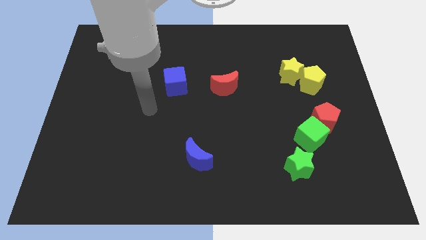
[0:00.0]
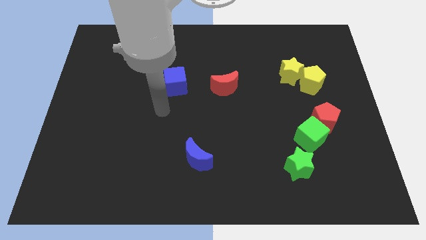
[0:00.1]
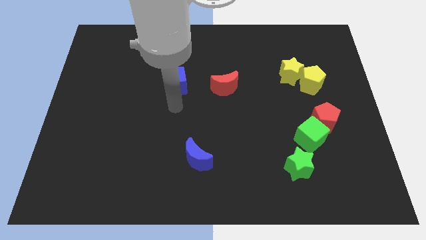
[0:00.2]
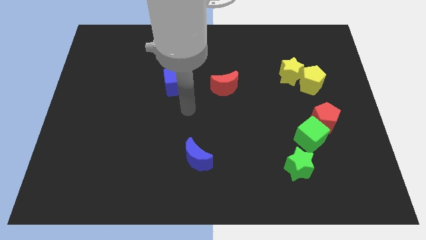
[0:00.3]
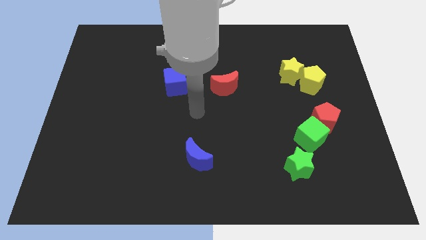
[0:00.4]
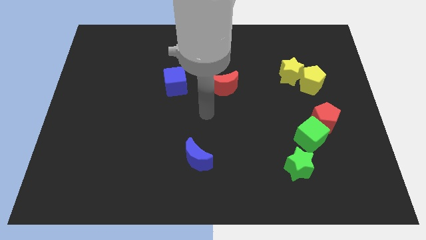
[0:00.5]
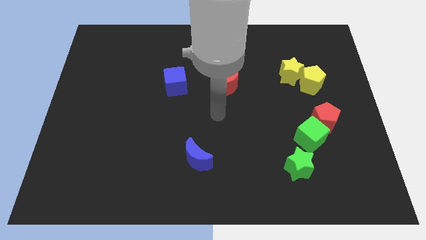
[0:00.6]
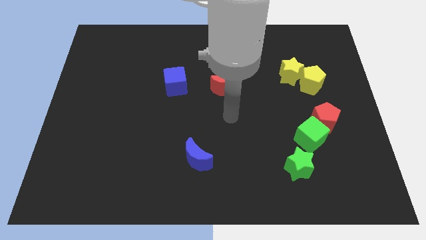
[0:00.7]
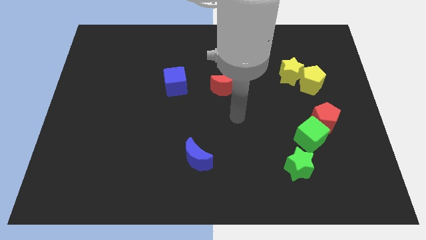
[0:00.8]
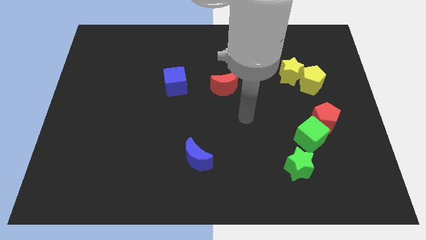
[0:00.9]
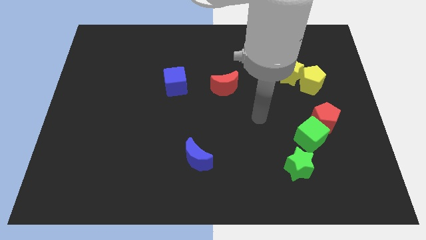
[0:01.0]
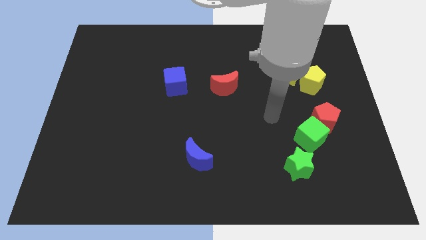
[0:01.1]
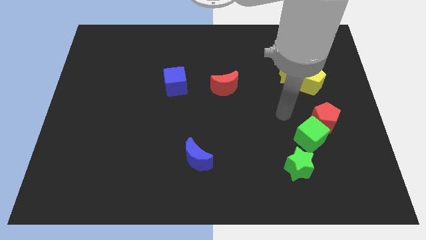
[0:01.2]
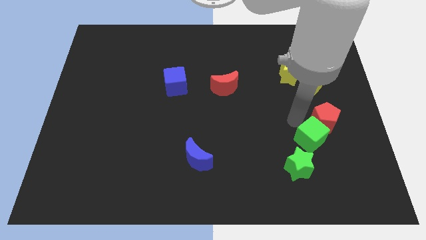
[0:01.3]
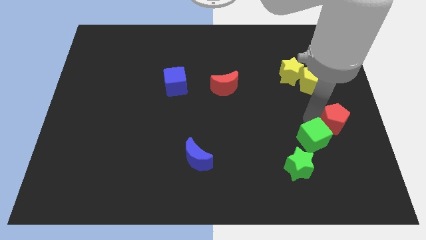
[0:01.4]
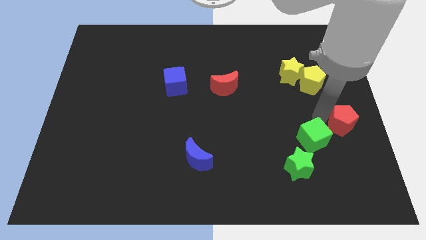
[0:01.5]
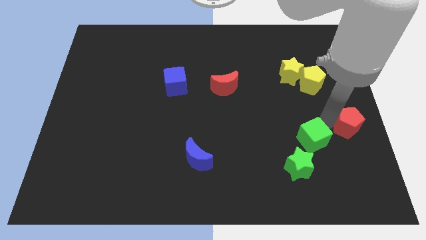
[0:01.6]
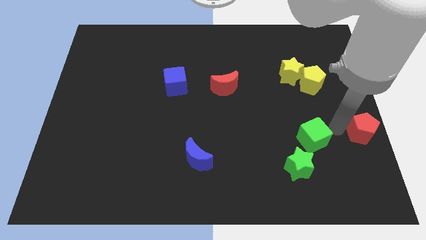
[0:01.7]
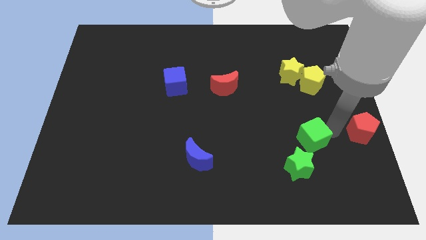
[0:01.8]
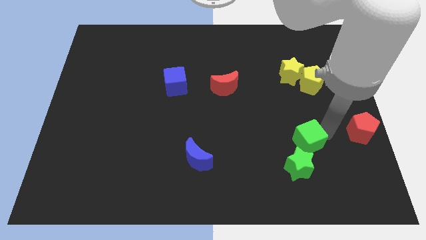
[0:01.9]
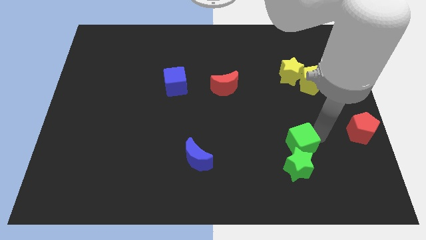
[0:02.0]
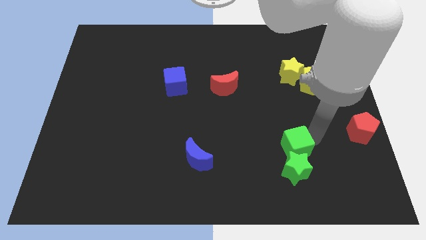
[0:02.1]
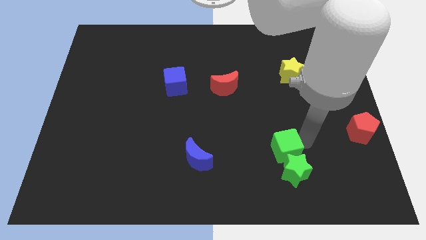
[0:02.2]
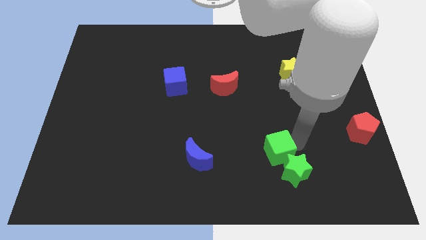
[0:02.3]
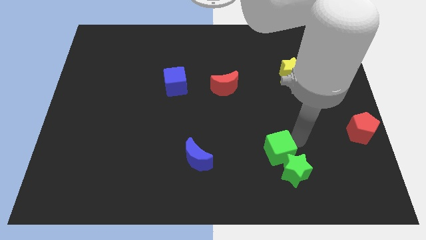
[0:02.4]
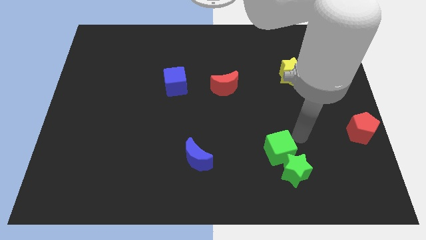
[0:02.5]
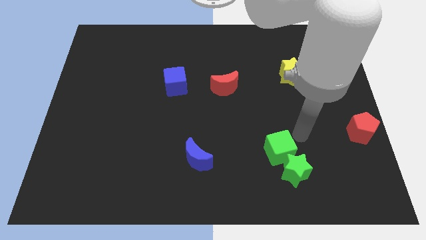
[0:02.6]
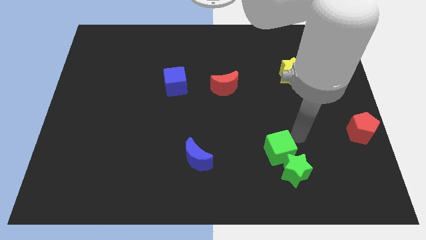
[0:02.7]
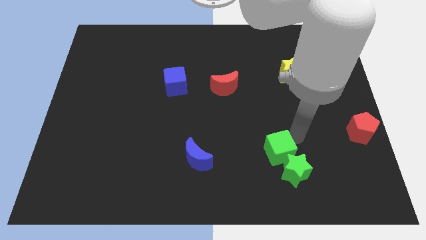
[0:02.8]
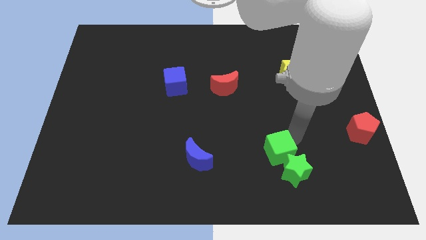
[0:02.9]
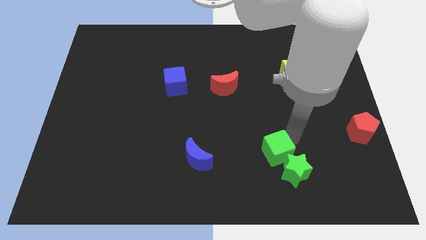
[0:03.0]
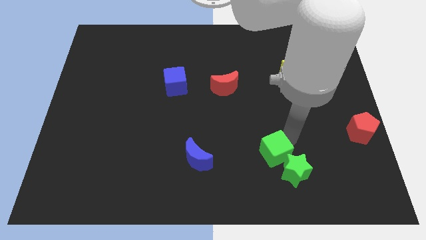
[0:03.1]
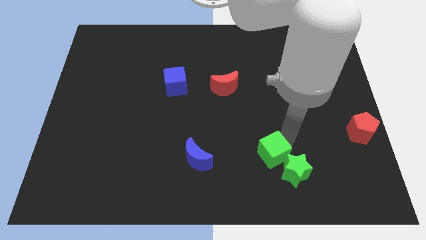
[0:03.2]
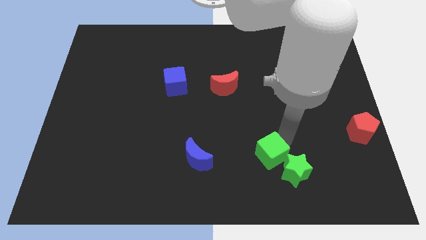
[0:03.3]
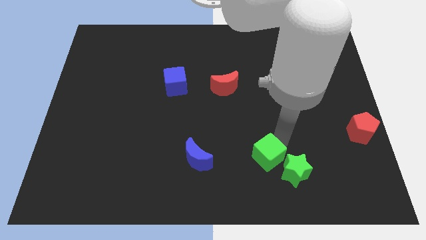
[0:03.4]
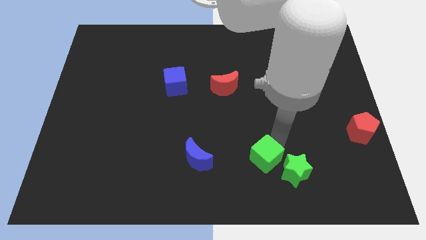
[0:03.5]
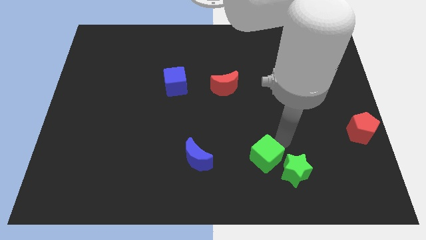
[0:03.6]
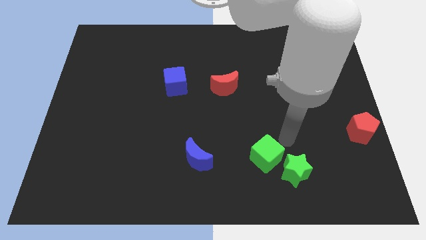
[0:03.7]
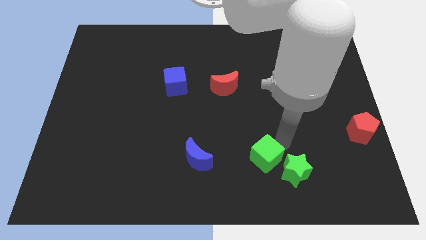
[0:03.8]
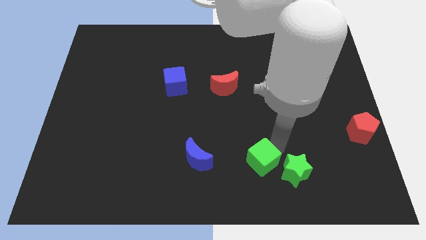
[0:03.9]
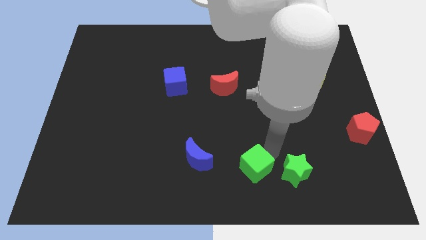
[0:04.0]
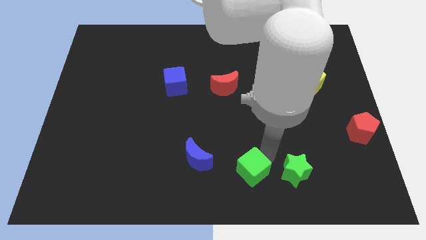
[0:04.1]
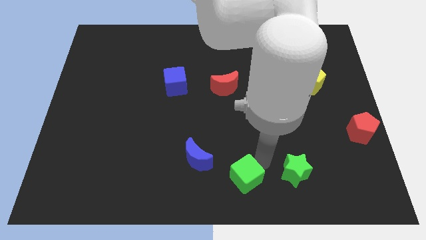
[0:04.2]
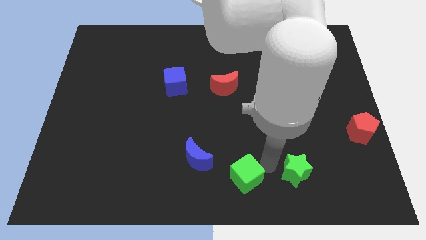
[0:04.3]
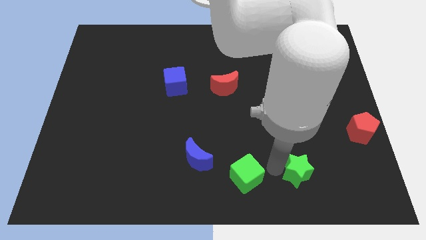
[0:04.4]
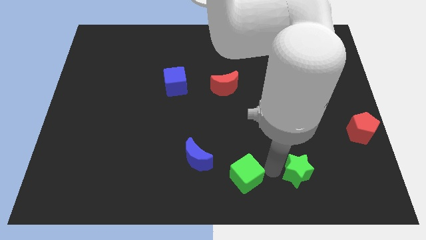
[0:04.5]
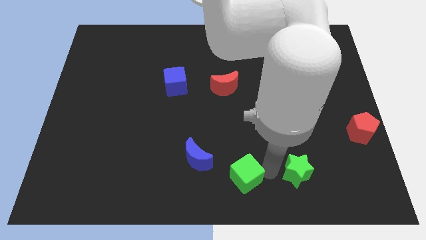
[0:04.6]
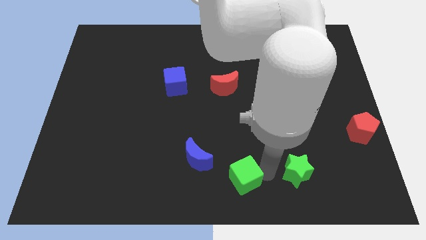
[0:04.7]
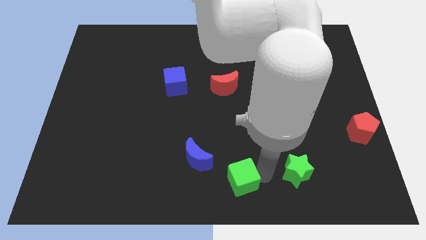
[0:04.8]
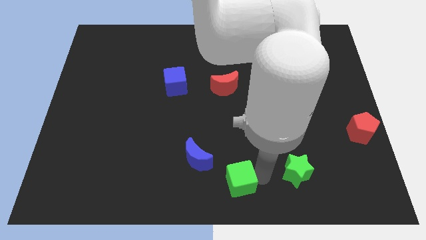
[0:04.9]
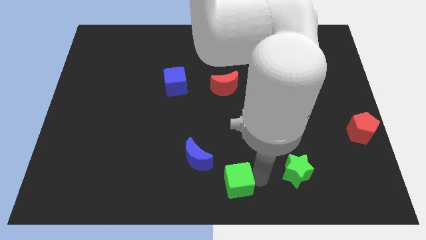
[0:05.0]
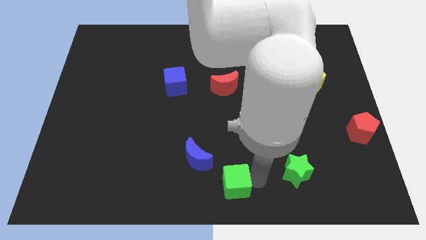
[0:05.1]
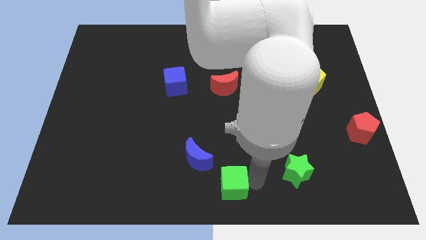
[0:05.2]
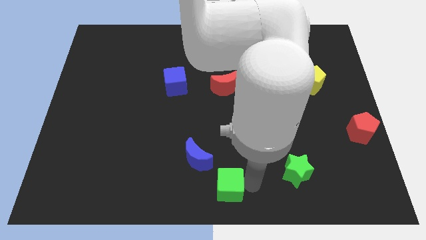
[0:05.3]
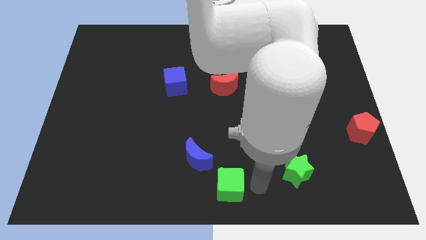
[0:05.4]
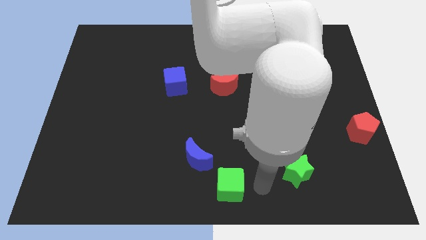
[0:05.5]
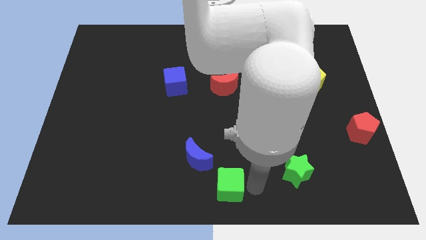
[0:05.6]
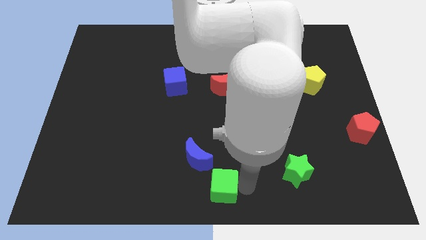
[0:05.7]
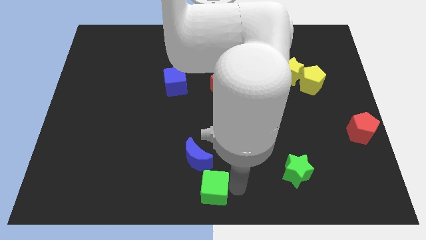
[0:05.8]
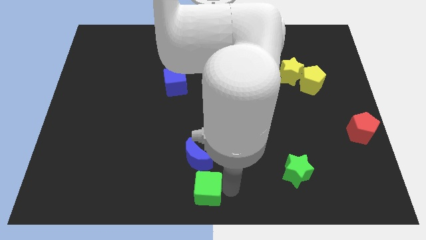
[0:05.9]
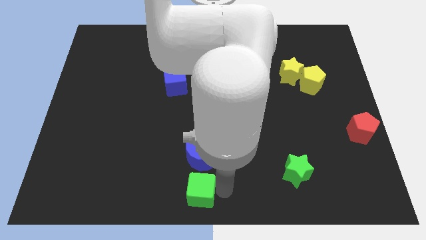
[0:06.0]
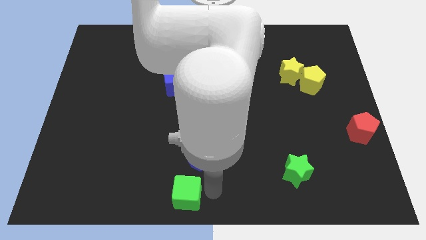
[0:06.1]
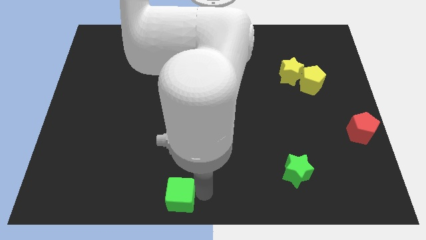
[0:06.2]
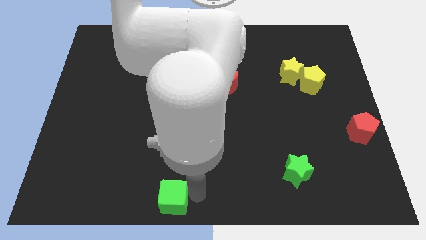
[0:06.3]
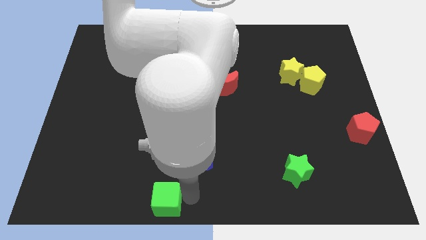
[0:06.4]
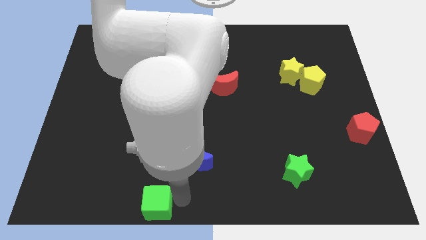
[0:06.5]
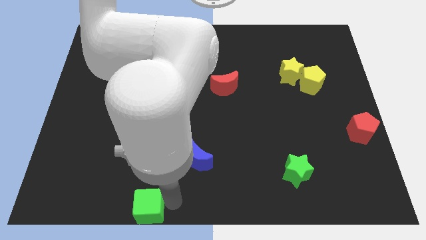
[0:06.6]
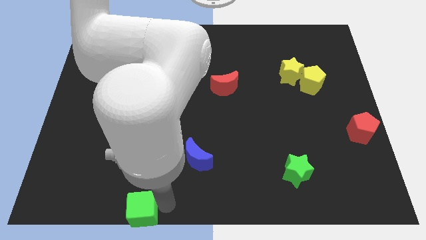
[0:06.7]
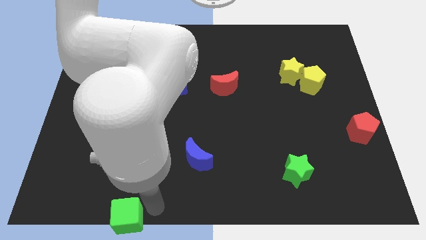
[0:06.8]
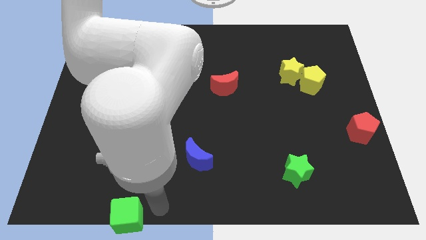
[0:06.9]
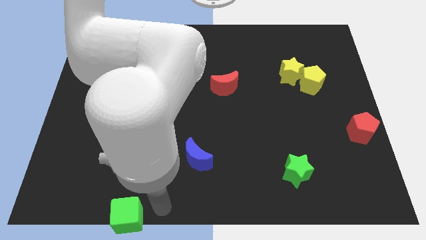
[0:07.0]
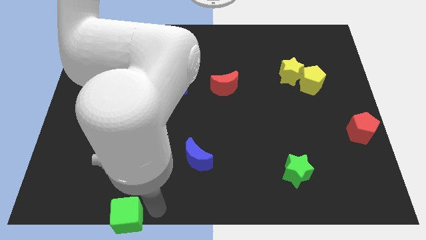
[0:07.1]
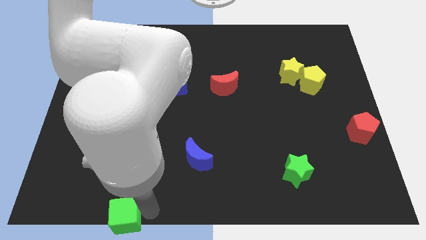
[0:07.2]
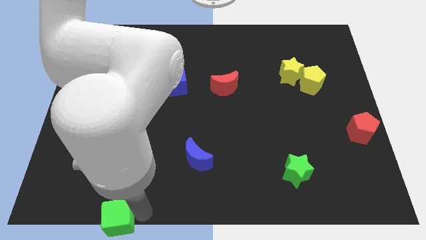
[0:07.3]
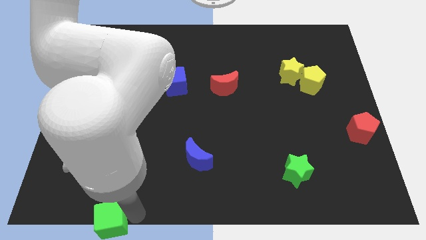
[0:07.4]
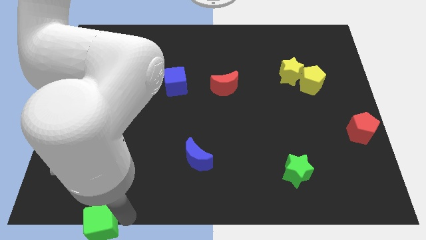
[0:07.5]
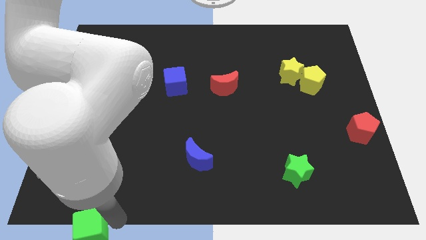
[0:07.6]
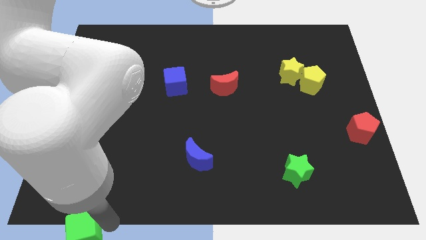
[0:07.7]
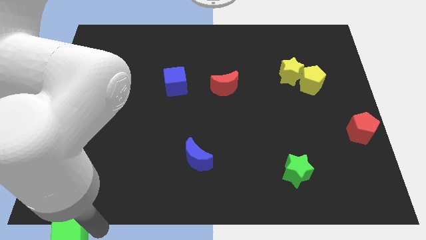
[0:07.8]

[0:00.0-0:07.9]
push the green cube to the bottom left of the board
